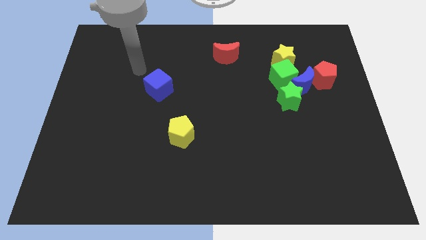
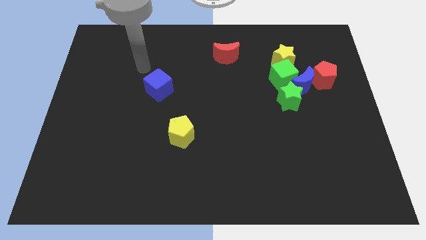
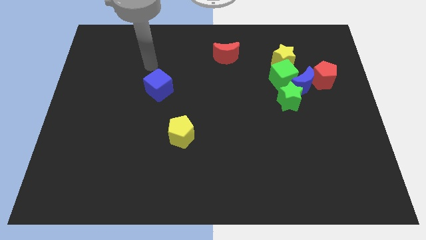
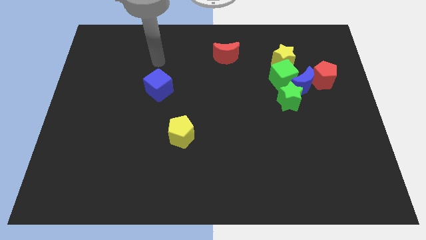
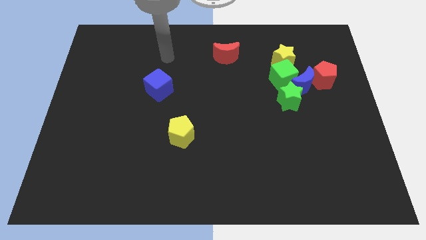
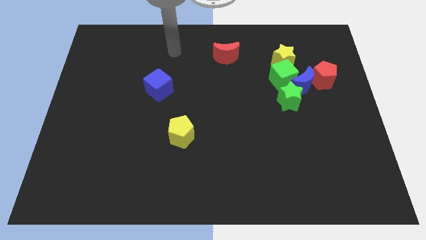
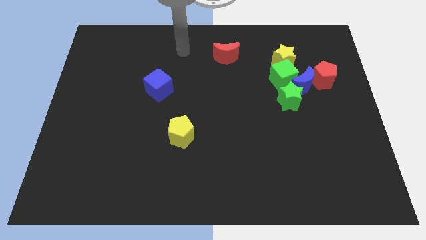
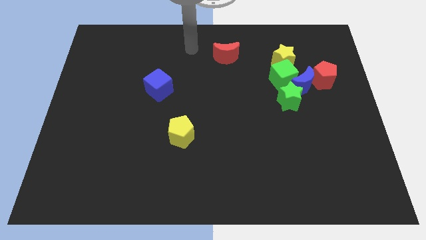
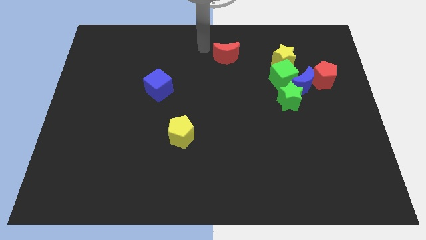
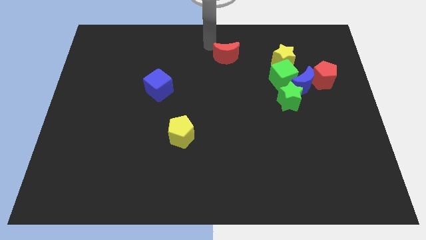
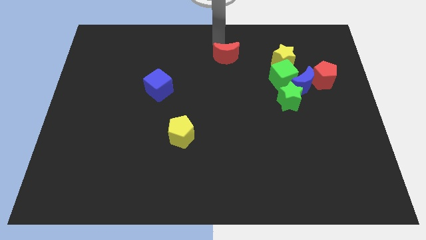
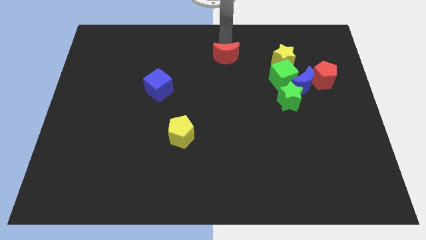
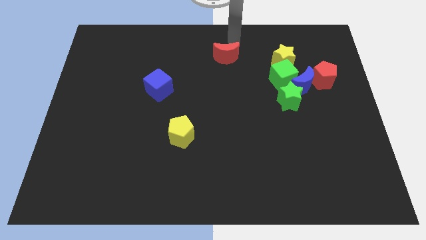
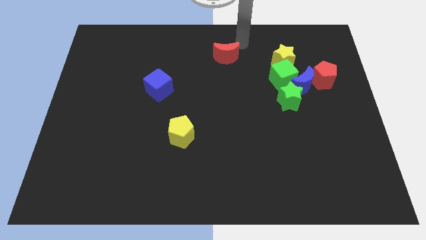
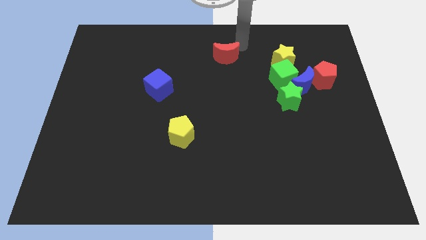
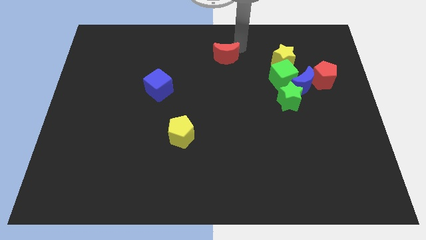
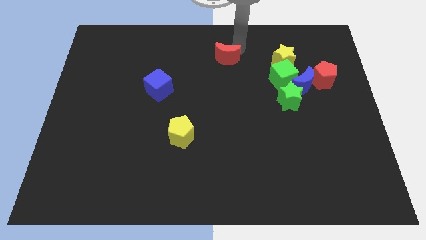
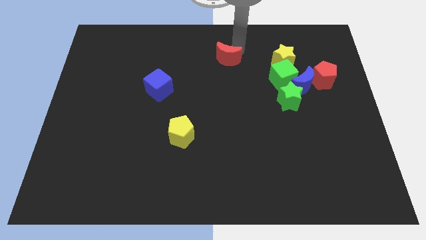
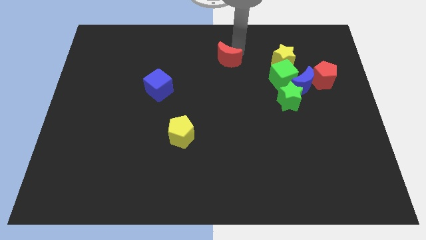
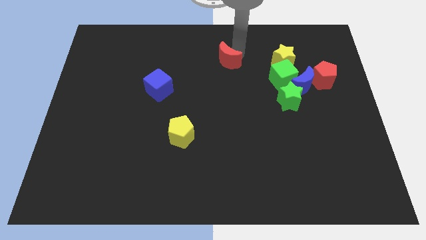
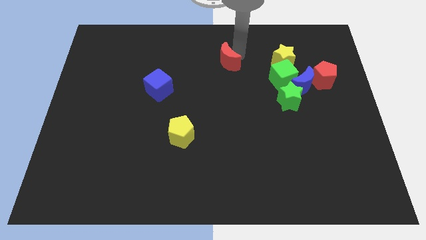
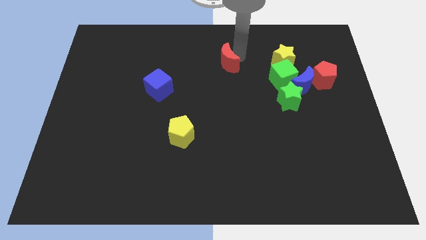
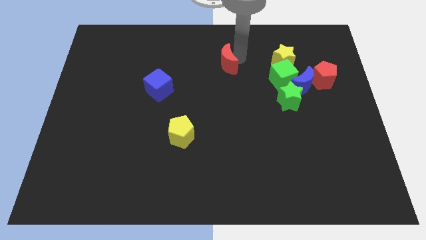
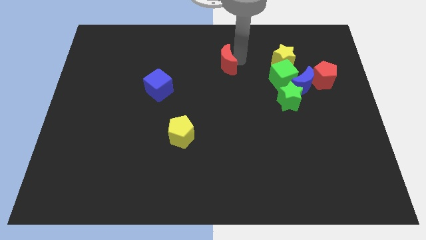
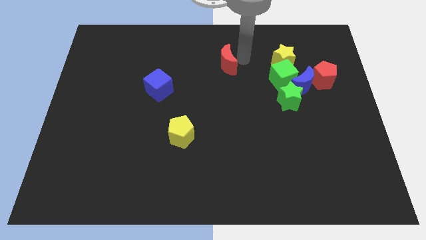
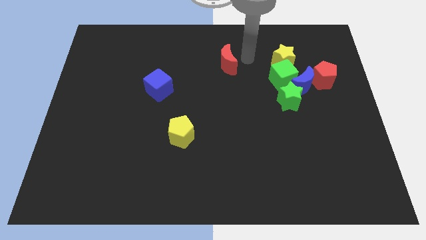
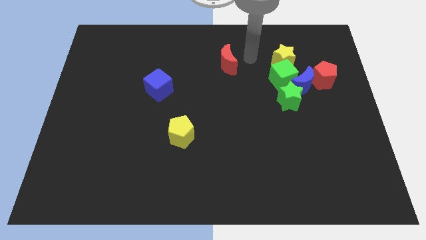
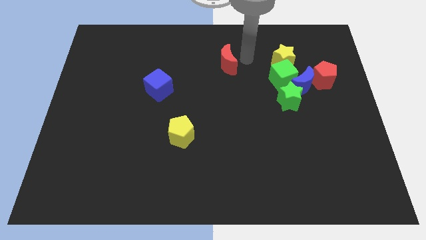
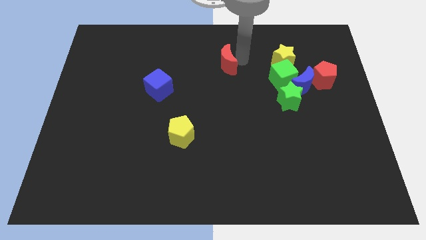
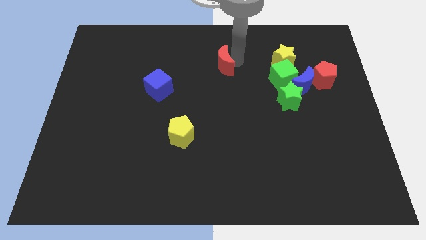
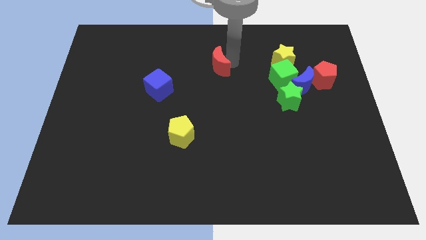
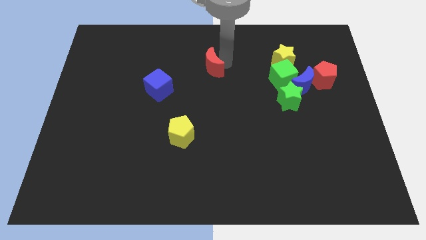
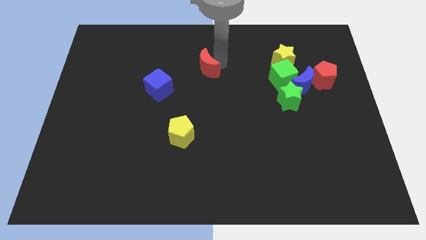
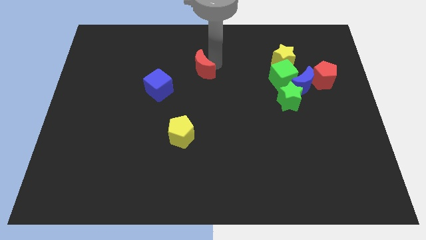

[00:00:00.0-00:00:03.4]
slide the red moon a little downwards and then left

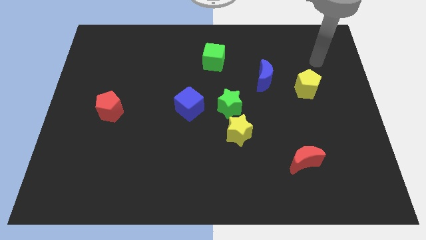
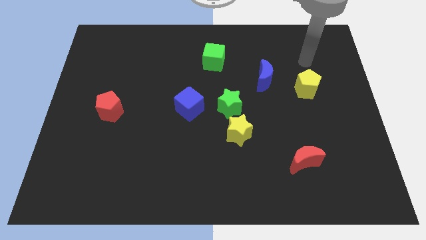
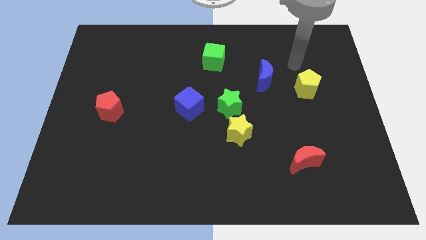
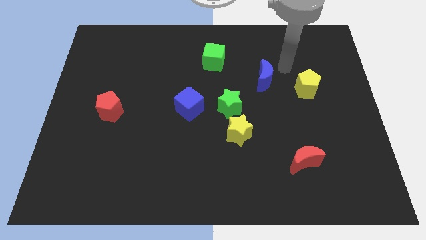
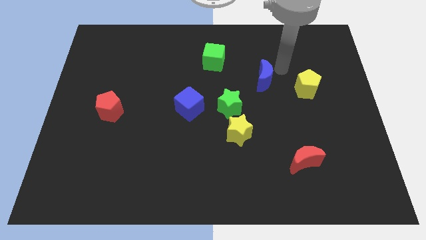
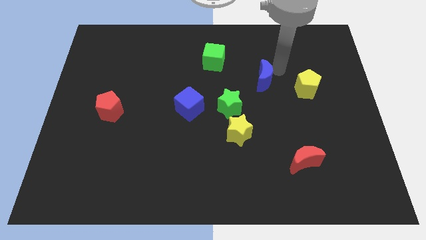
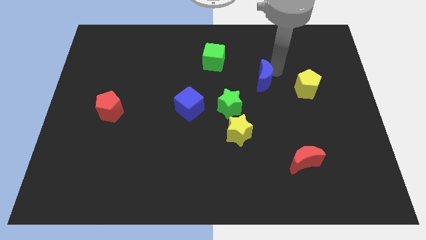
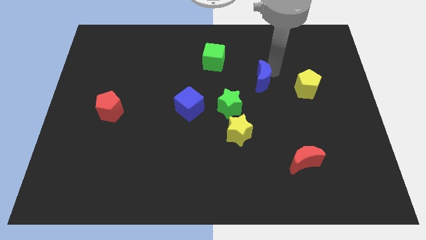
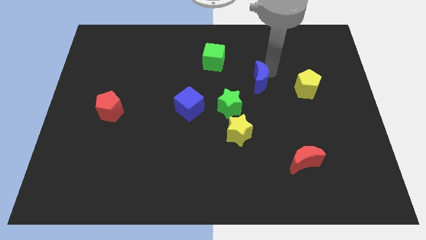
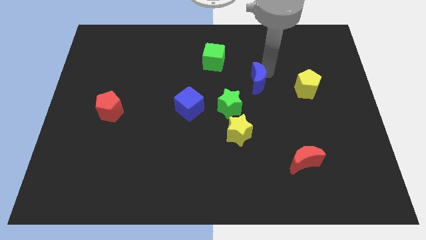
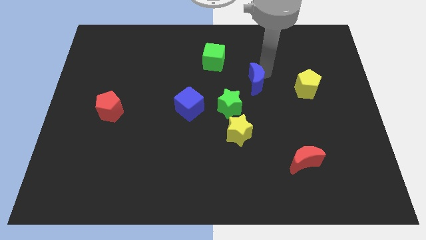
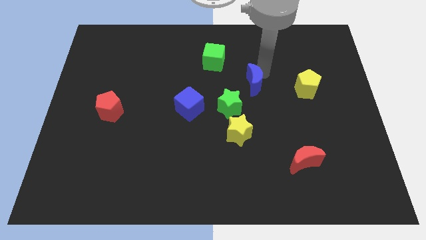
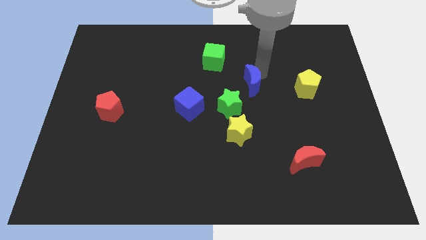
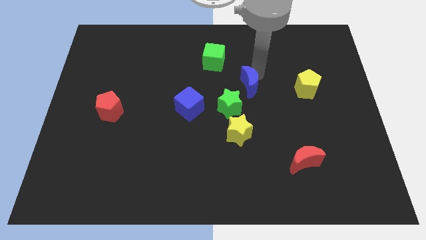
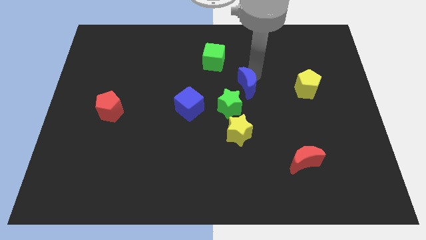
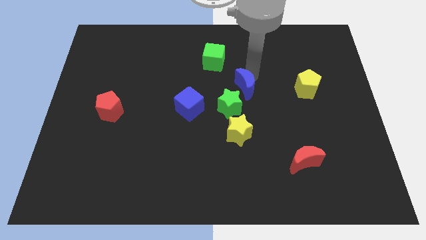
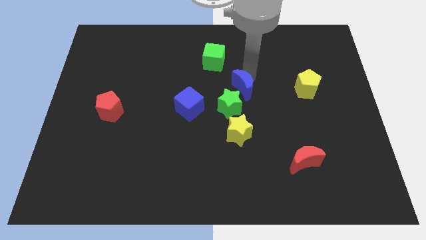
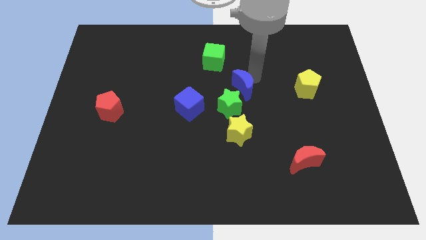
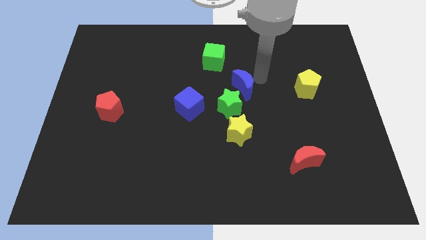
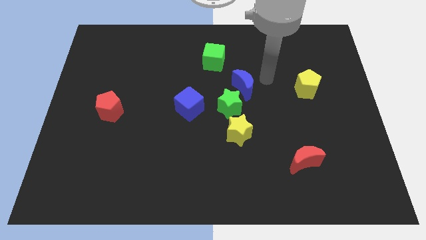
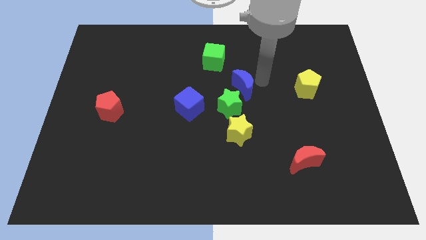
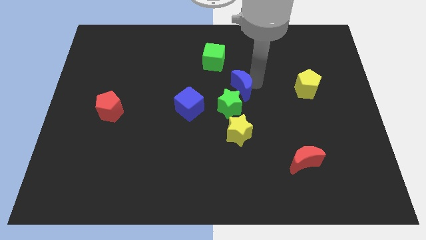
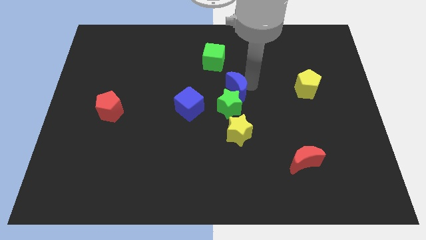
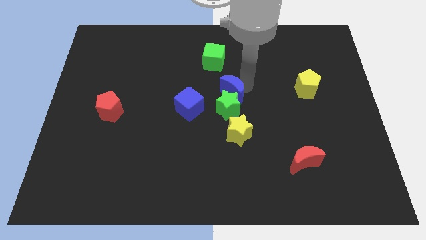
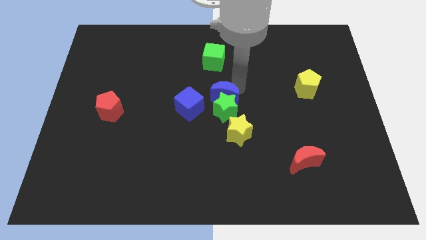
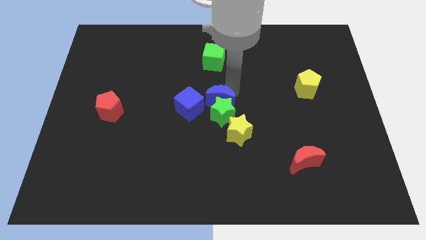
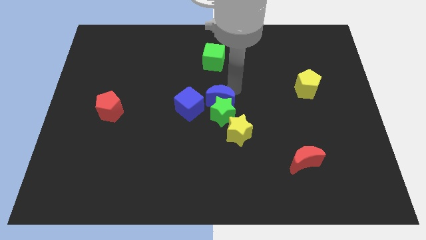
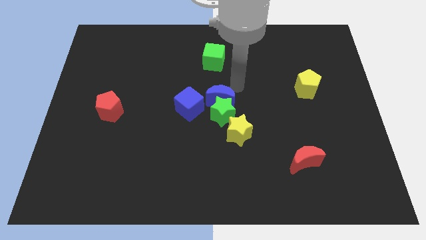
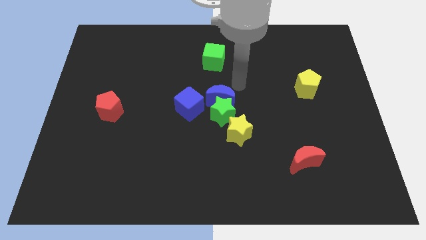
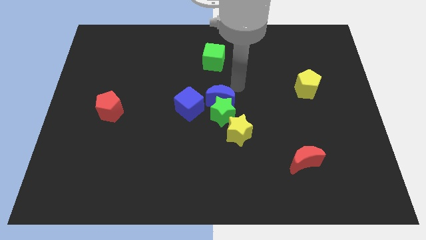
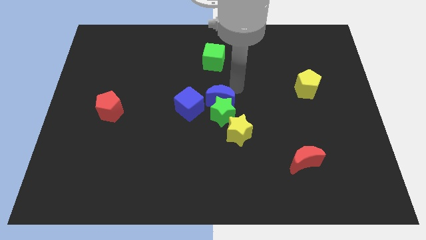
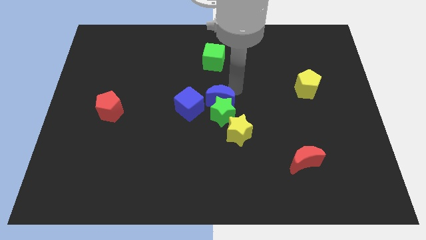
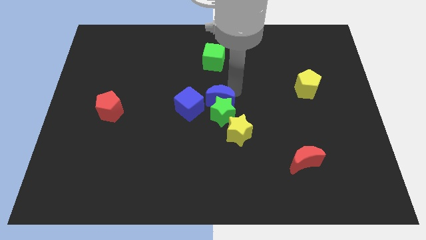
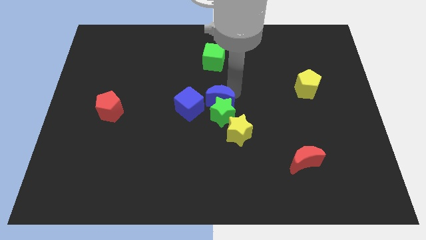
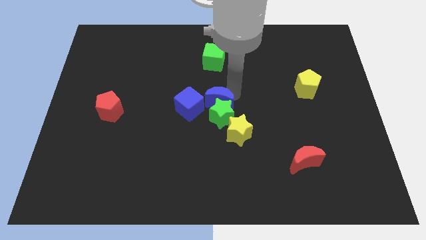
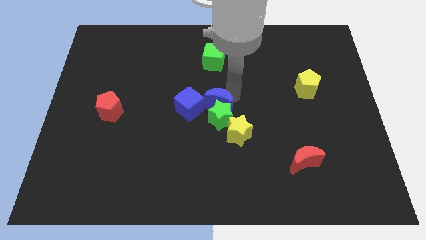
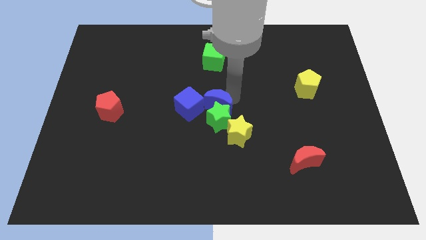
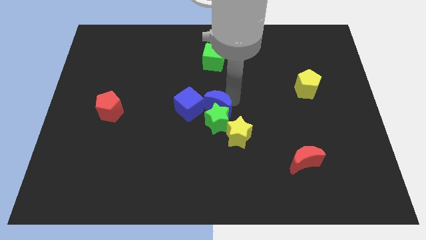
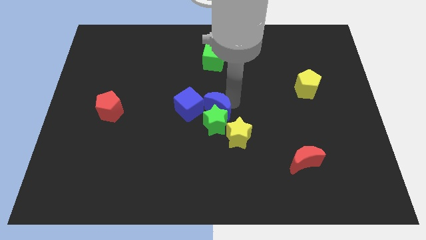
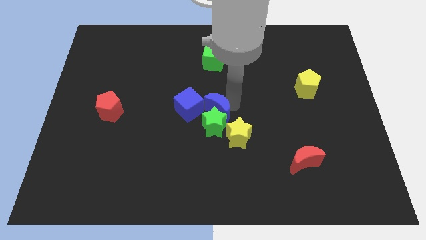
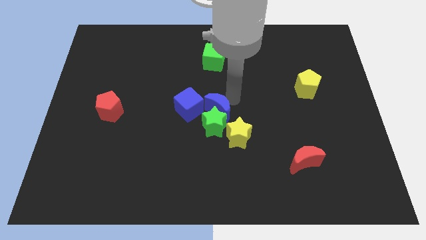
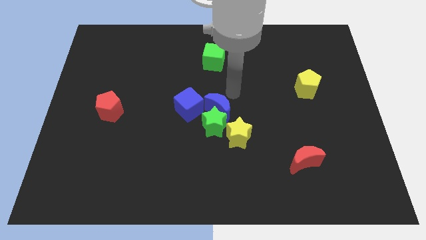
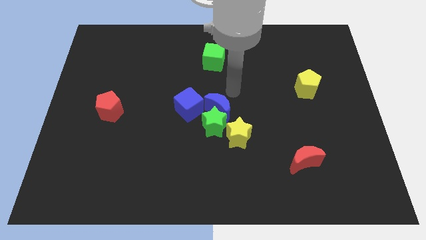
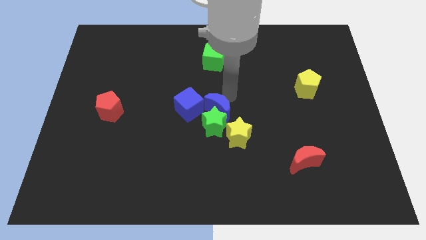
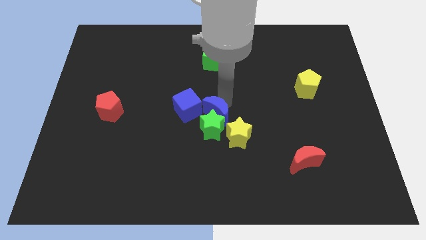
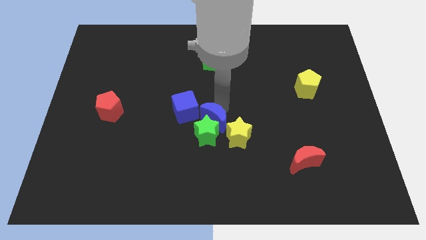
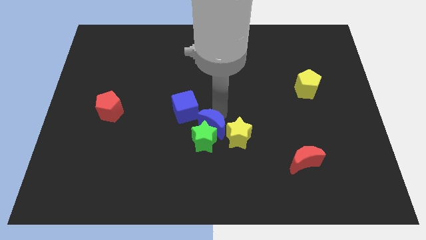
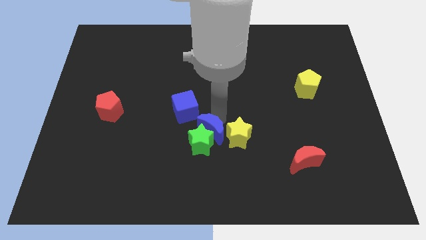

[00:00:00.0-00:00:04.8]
push the blue moon downwards and then left
